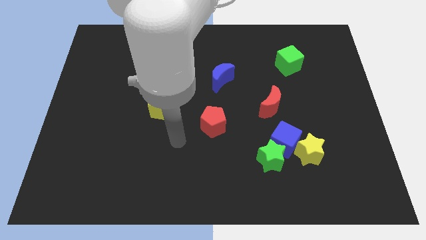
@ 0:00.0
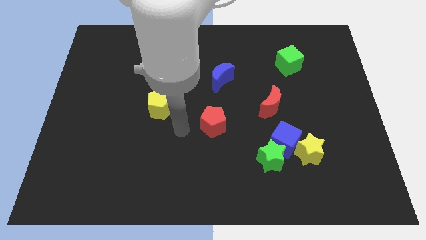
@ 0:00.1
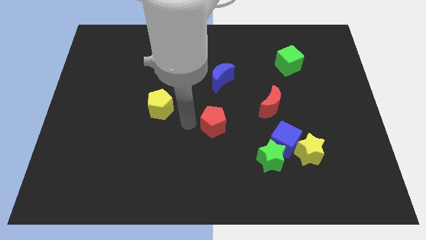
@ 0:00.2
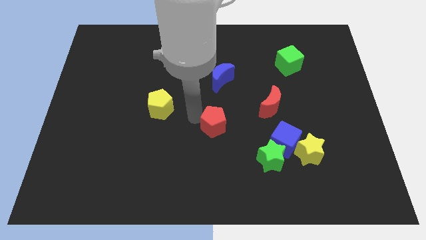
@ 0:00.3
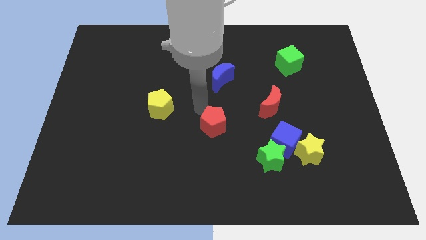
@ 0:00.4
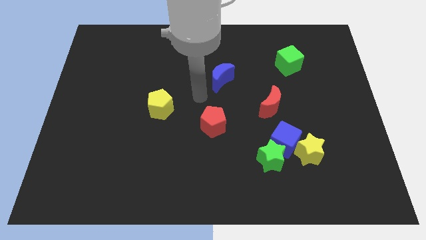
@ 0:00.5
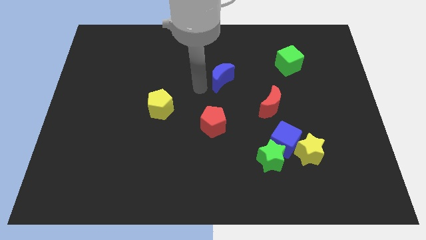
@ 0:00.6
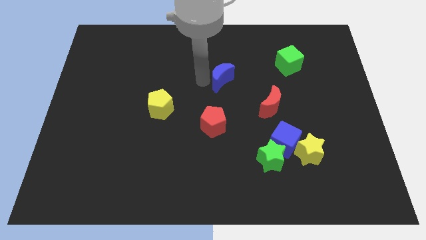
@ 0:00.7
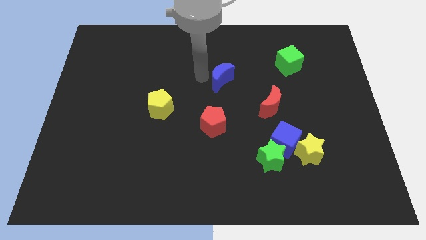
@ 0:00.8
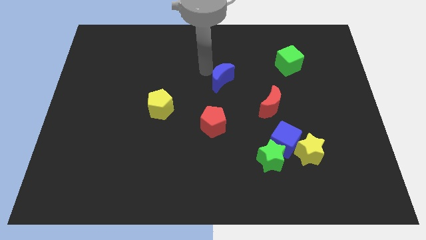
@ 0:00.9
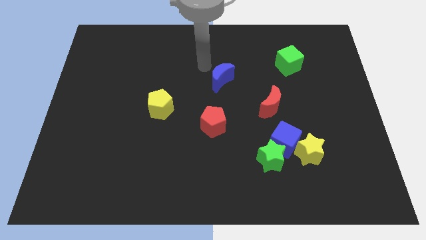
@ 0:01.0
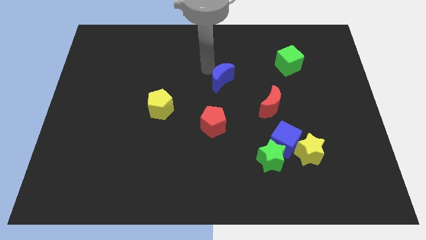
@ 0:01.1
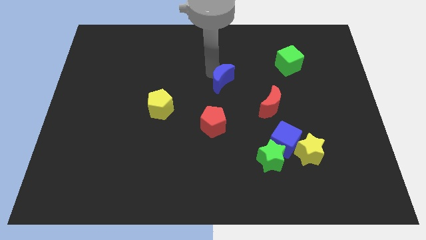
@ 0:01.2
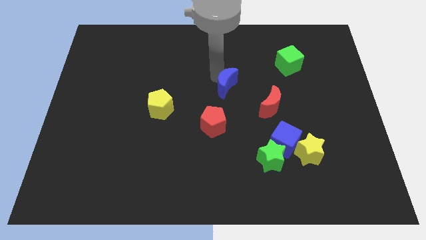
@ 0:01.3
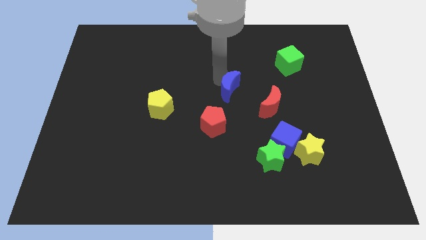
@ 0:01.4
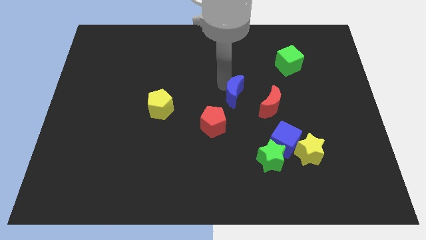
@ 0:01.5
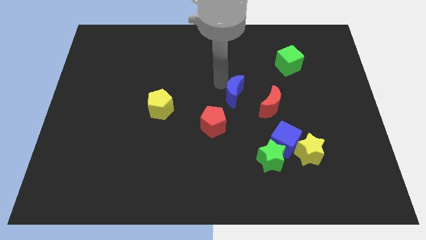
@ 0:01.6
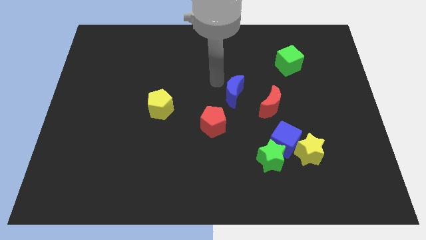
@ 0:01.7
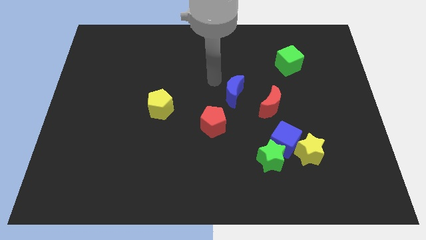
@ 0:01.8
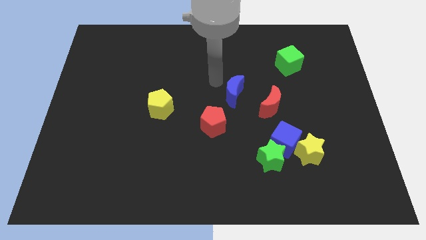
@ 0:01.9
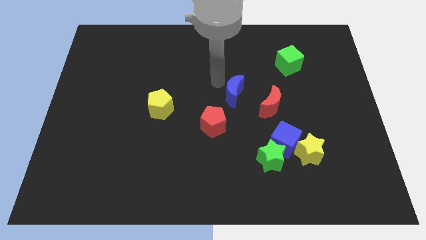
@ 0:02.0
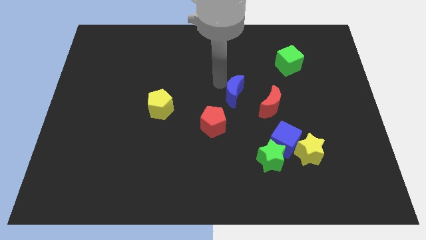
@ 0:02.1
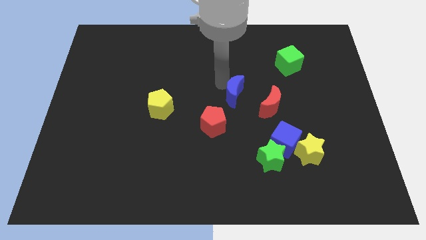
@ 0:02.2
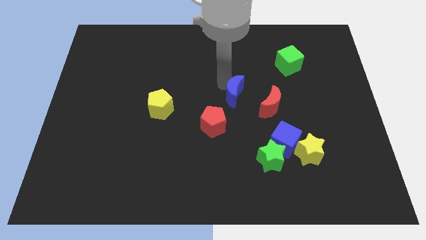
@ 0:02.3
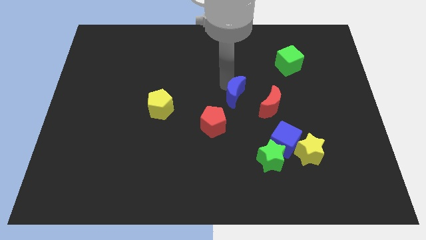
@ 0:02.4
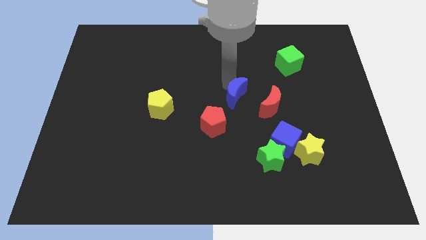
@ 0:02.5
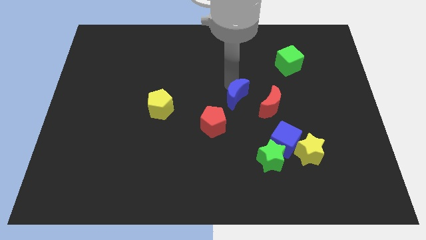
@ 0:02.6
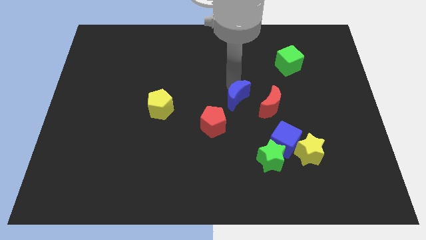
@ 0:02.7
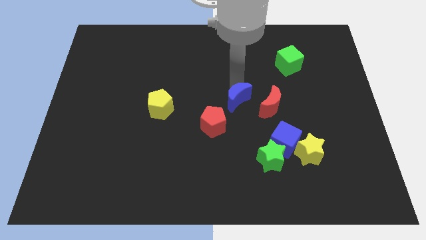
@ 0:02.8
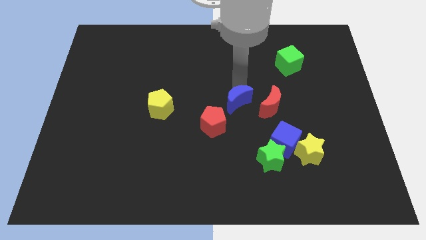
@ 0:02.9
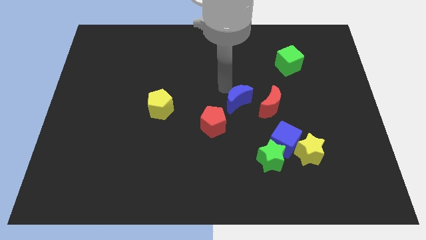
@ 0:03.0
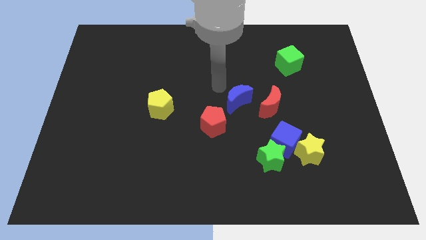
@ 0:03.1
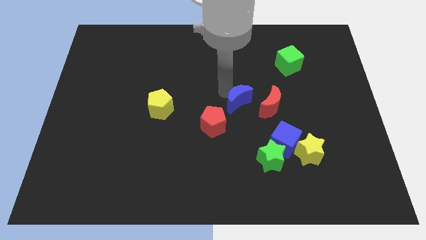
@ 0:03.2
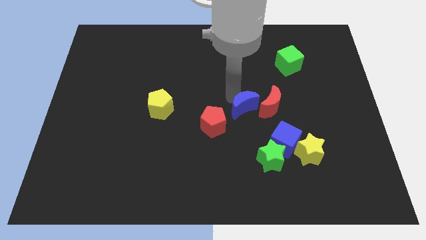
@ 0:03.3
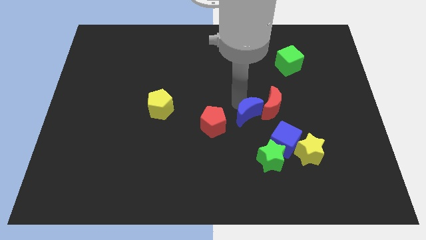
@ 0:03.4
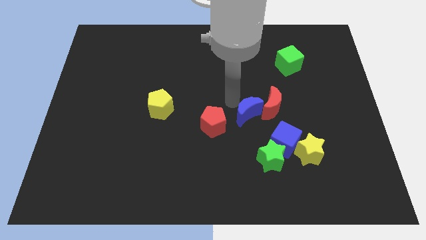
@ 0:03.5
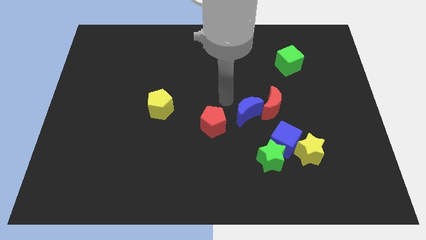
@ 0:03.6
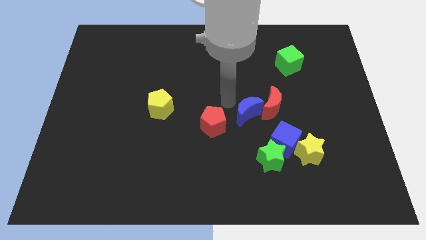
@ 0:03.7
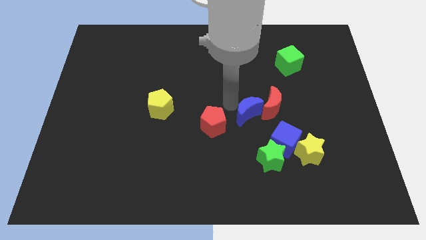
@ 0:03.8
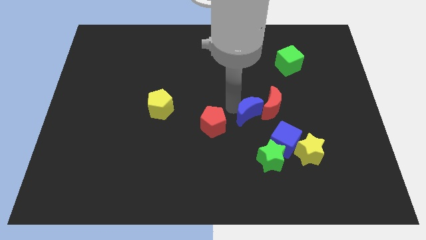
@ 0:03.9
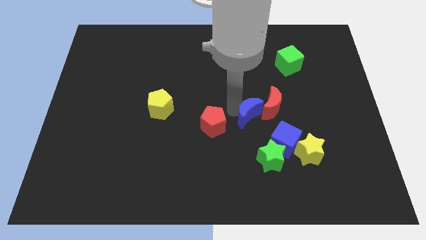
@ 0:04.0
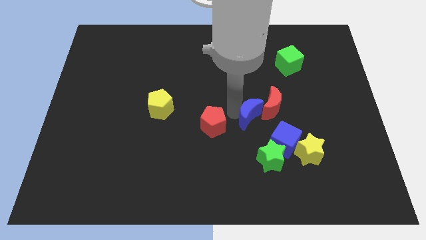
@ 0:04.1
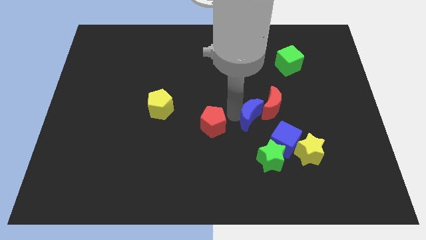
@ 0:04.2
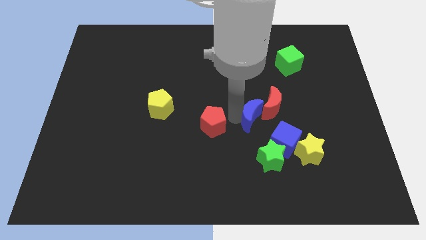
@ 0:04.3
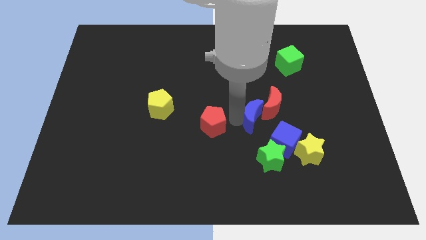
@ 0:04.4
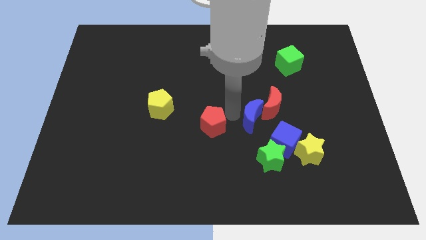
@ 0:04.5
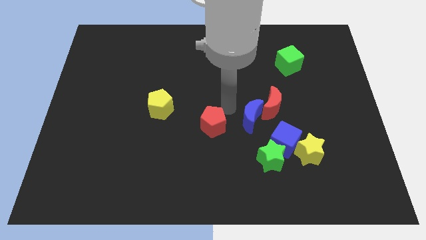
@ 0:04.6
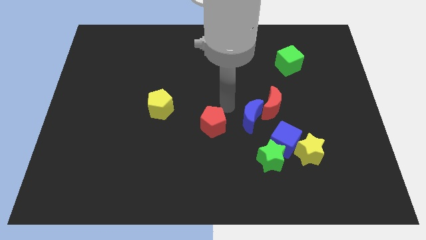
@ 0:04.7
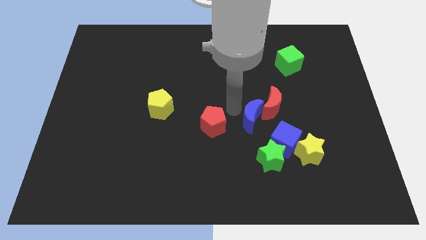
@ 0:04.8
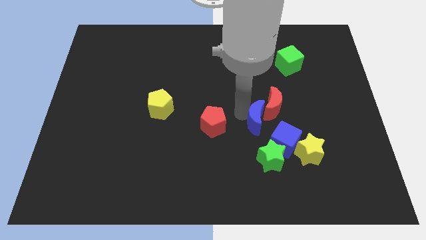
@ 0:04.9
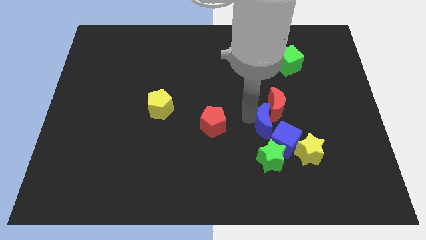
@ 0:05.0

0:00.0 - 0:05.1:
move the blue moon to the top left of the yellow star

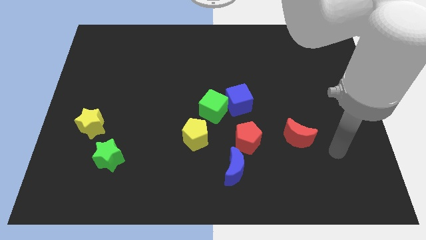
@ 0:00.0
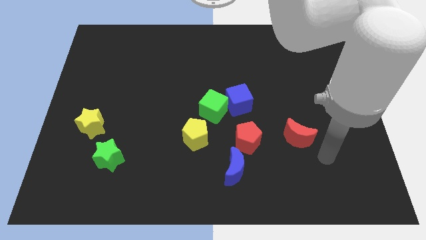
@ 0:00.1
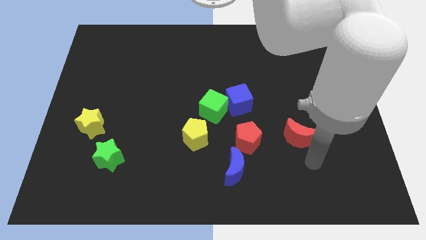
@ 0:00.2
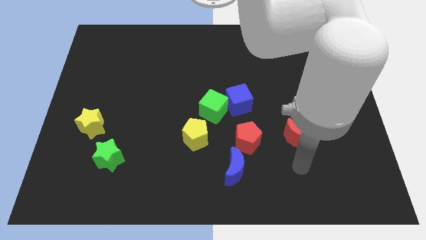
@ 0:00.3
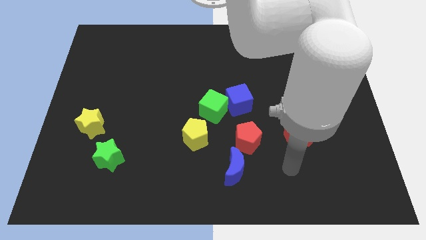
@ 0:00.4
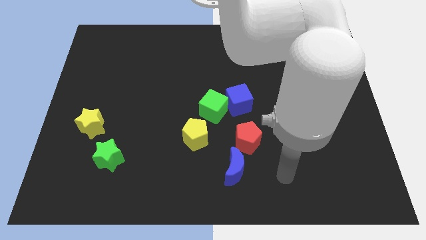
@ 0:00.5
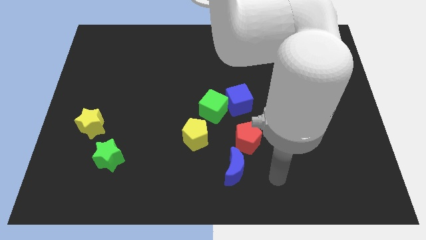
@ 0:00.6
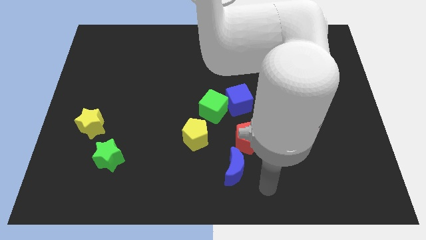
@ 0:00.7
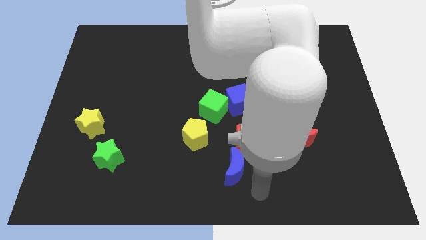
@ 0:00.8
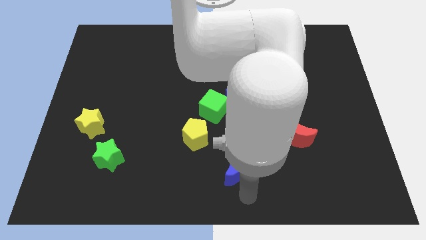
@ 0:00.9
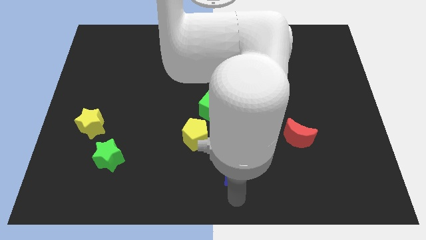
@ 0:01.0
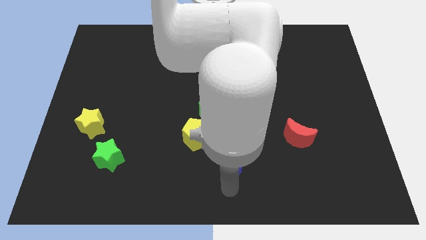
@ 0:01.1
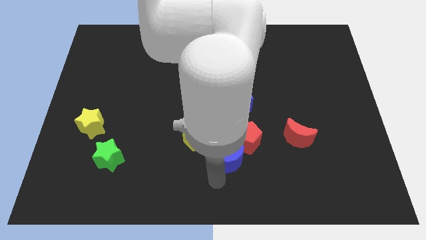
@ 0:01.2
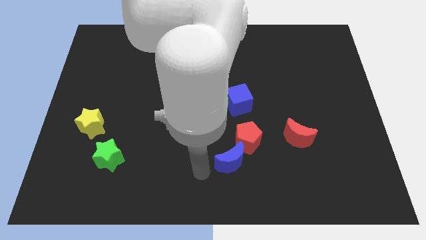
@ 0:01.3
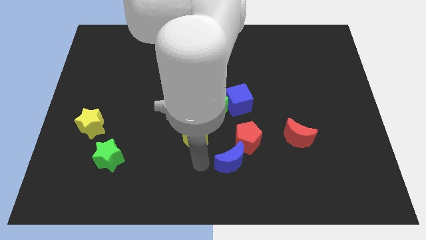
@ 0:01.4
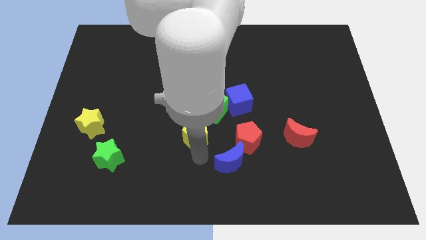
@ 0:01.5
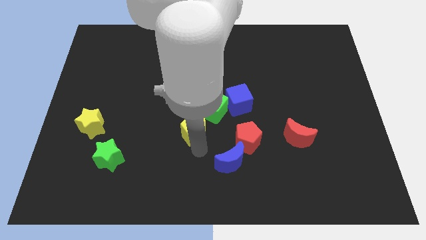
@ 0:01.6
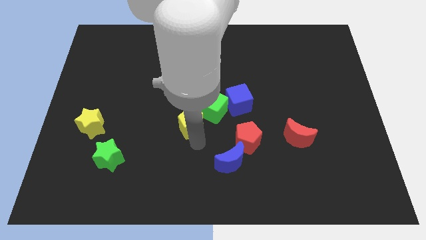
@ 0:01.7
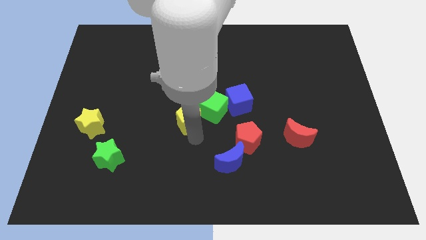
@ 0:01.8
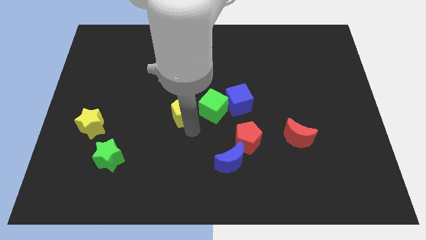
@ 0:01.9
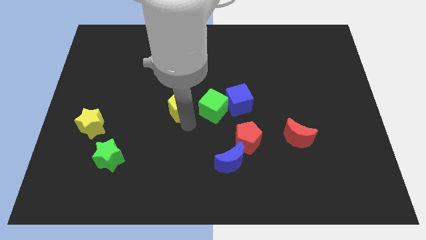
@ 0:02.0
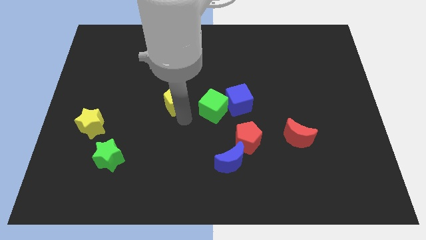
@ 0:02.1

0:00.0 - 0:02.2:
slide the yellow pentagon to the top left of the green cube

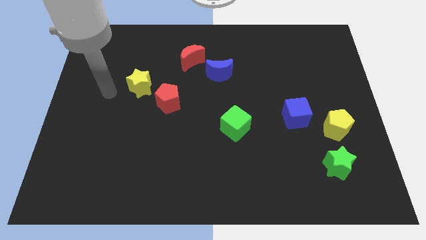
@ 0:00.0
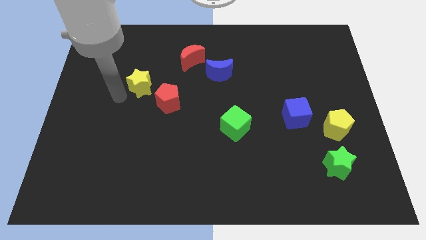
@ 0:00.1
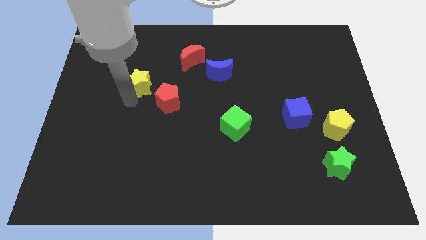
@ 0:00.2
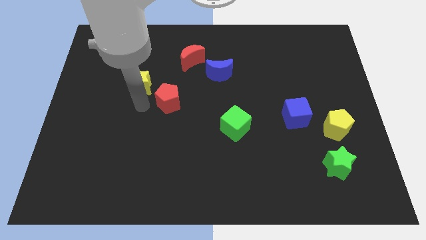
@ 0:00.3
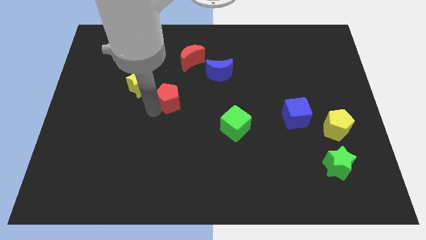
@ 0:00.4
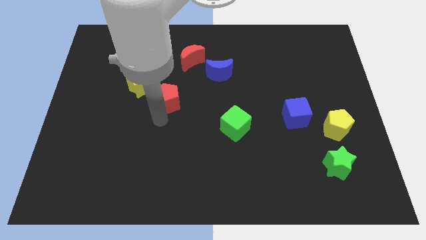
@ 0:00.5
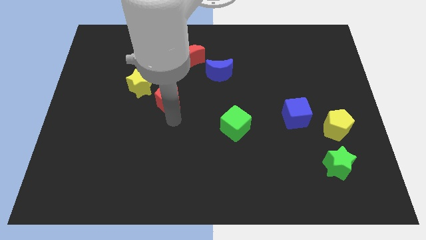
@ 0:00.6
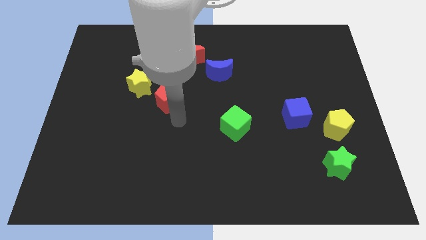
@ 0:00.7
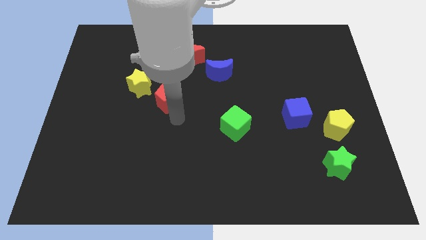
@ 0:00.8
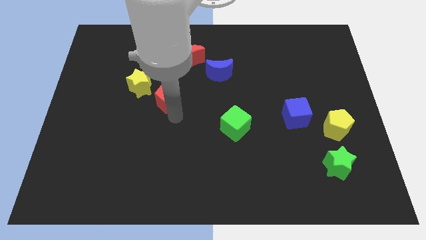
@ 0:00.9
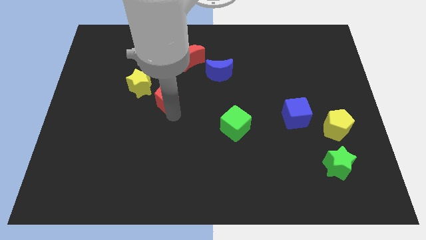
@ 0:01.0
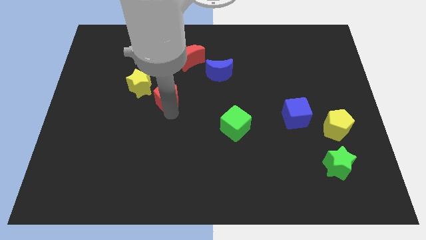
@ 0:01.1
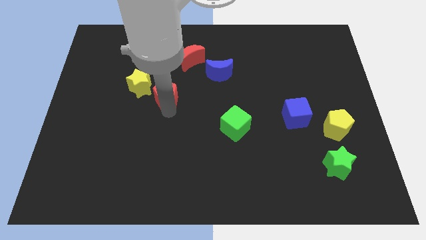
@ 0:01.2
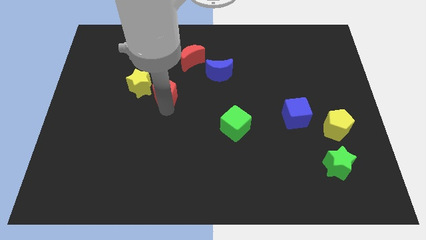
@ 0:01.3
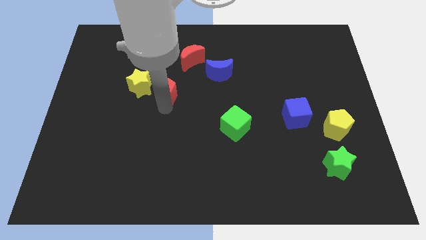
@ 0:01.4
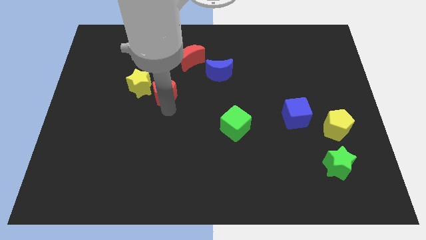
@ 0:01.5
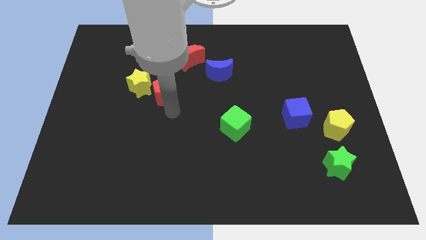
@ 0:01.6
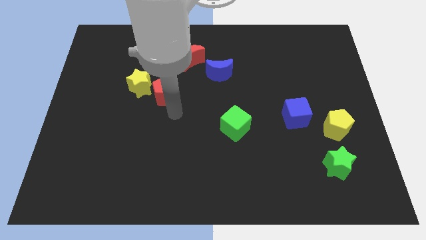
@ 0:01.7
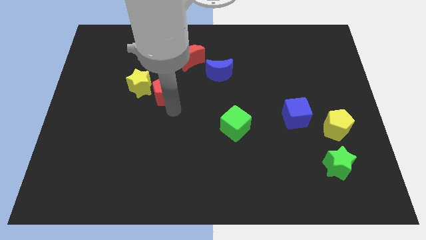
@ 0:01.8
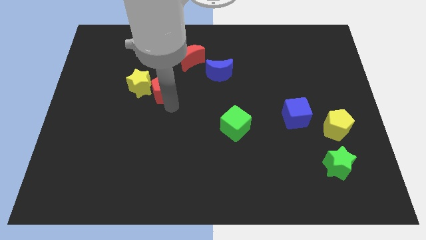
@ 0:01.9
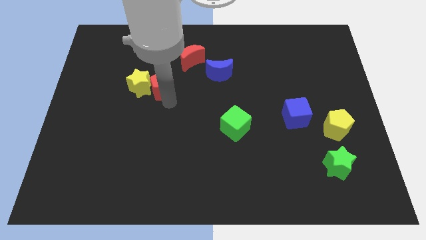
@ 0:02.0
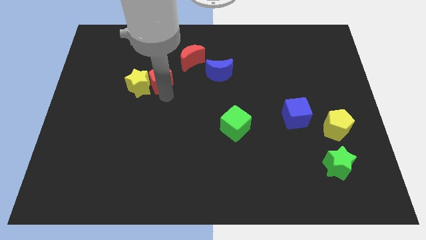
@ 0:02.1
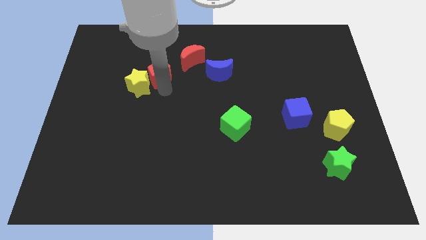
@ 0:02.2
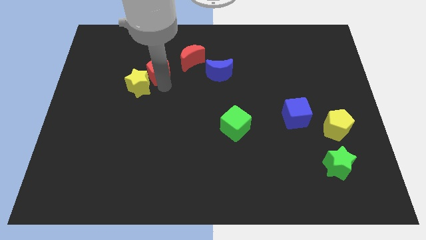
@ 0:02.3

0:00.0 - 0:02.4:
slide the red pentagon to the top of the yellow star
